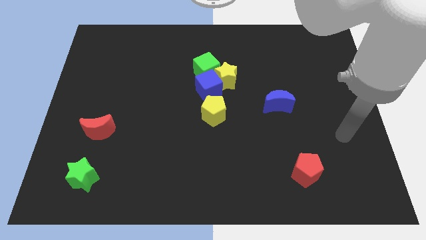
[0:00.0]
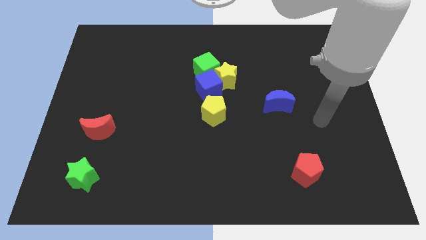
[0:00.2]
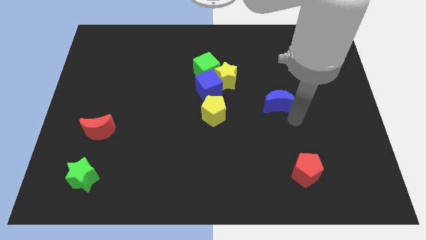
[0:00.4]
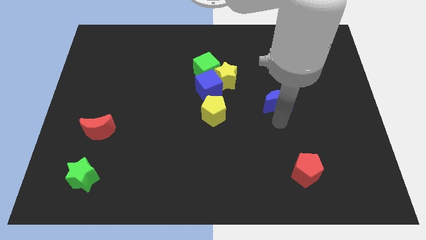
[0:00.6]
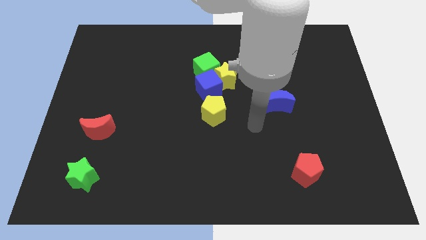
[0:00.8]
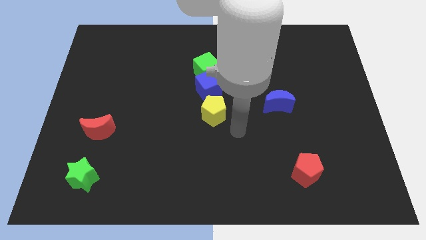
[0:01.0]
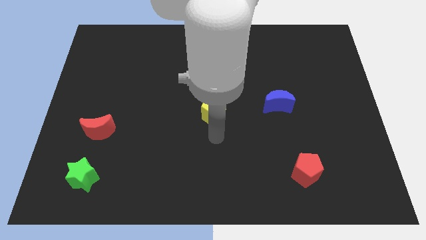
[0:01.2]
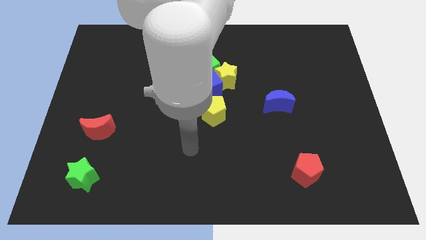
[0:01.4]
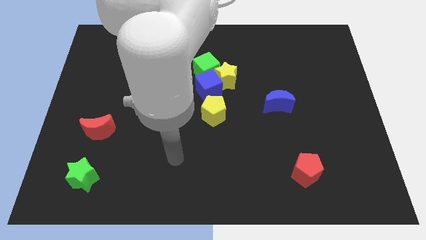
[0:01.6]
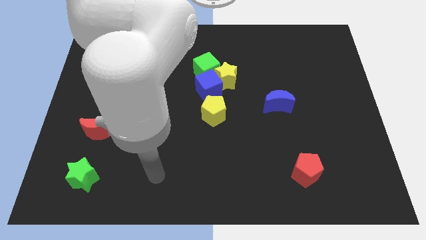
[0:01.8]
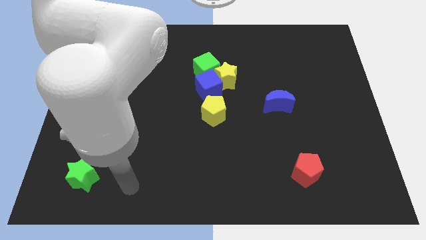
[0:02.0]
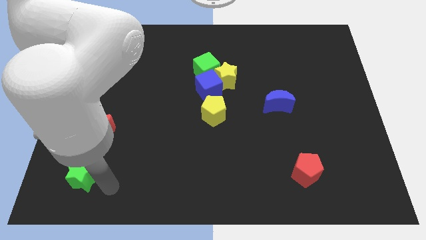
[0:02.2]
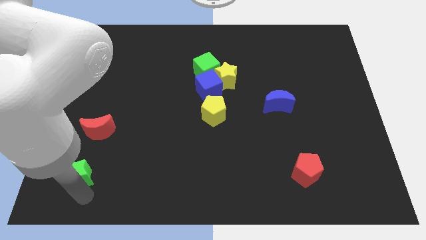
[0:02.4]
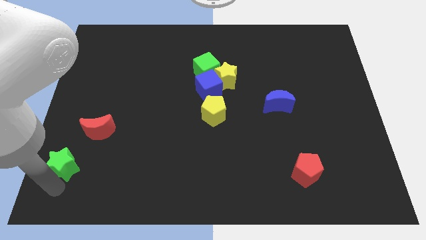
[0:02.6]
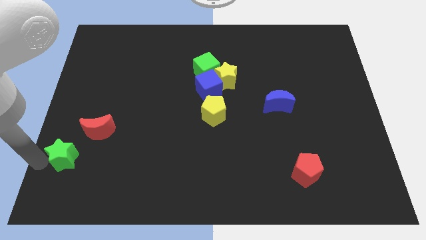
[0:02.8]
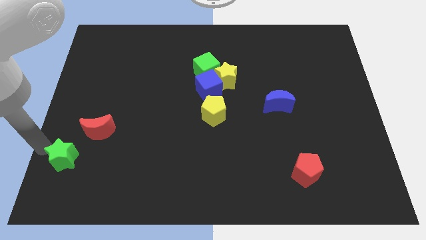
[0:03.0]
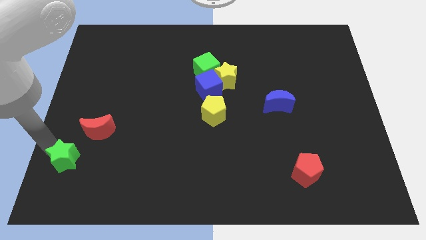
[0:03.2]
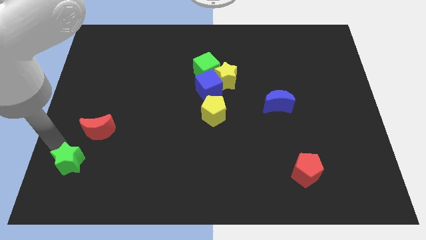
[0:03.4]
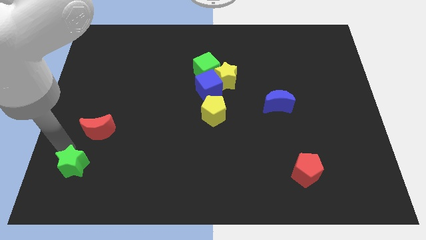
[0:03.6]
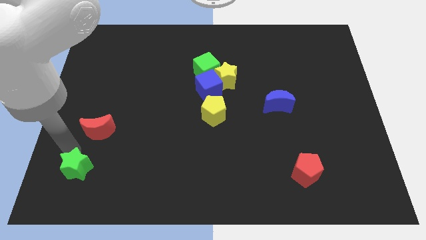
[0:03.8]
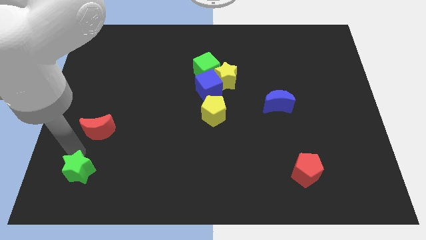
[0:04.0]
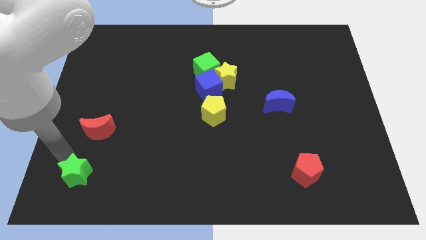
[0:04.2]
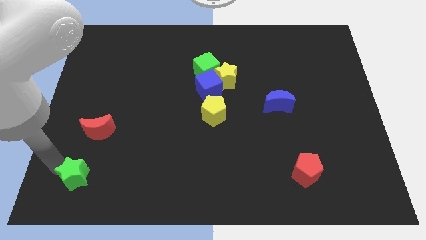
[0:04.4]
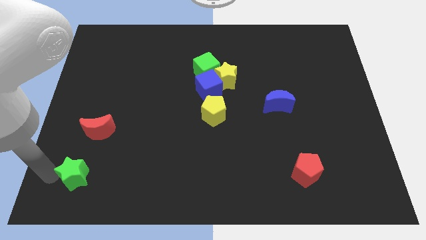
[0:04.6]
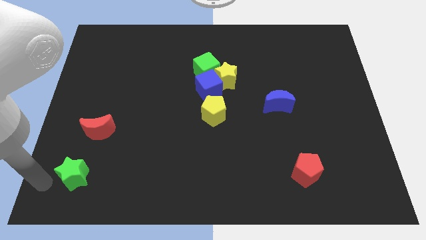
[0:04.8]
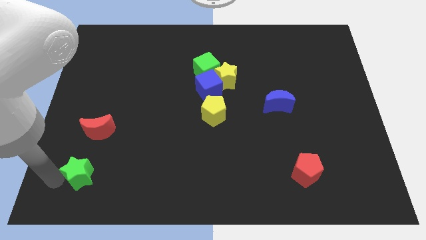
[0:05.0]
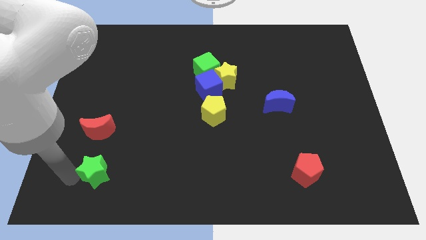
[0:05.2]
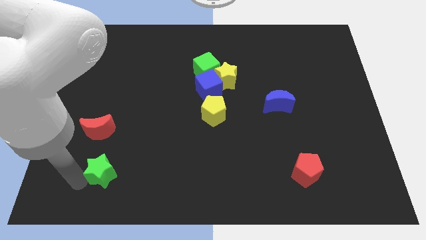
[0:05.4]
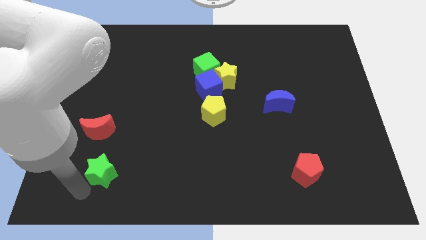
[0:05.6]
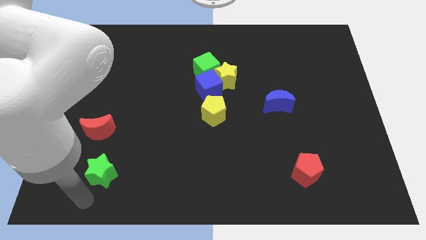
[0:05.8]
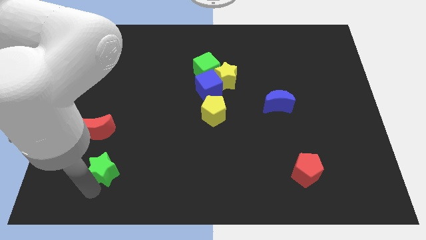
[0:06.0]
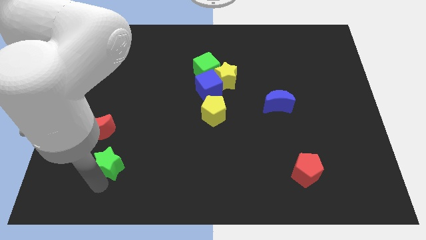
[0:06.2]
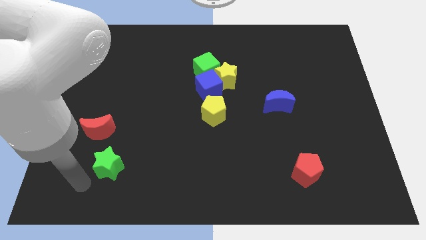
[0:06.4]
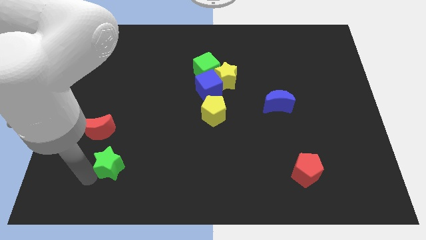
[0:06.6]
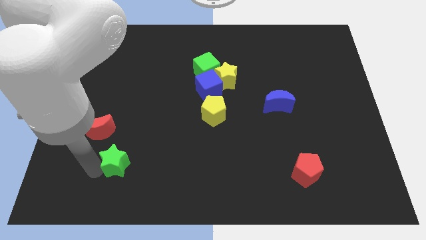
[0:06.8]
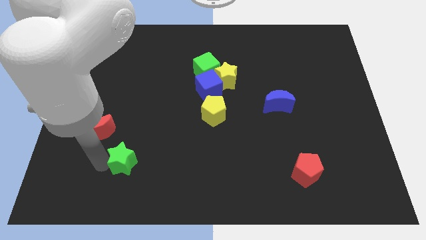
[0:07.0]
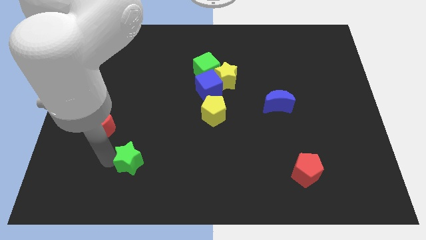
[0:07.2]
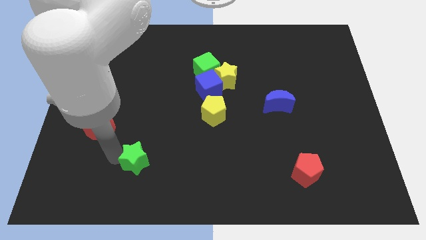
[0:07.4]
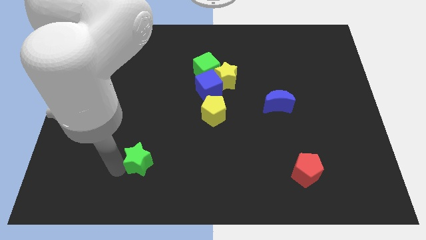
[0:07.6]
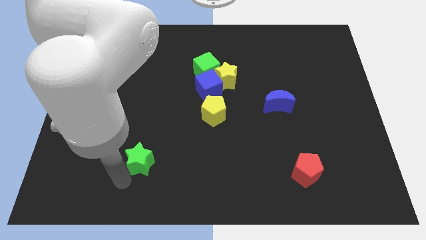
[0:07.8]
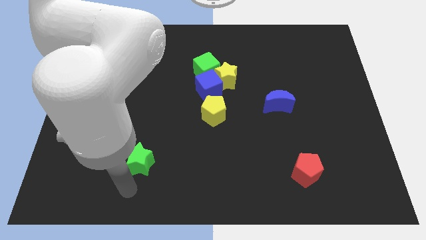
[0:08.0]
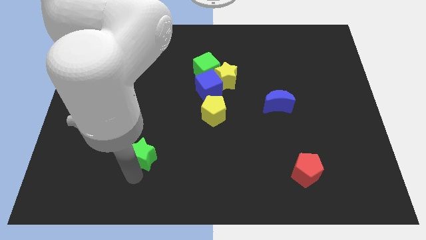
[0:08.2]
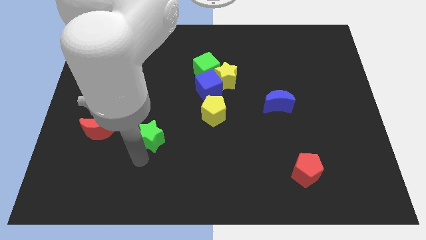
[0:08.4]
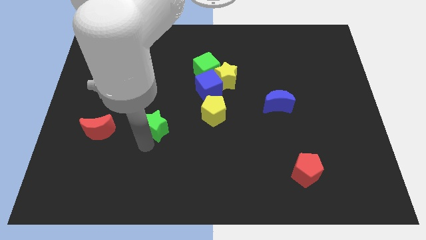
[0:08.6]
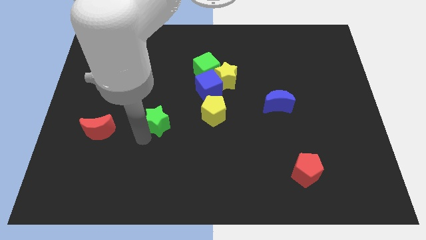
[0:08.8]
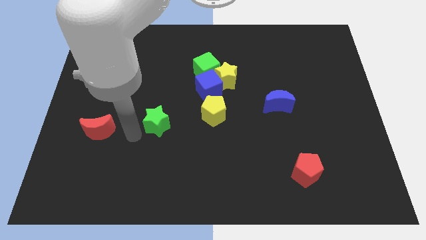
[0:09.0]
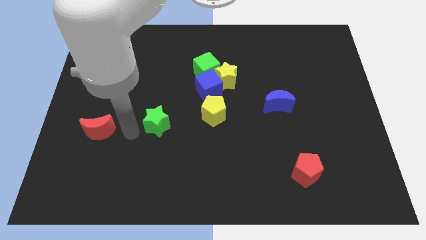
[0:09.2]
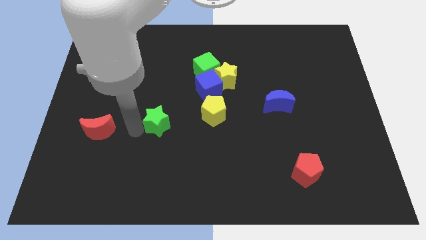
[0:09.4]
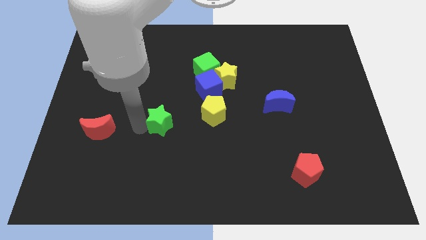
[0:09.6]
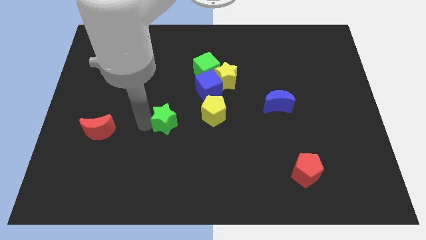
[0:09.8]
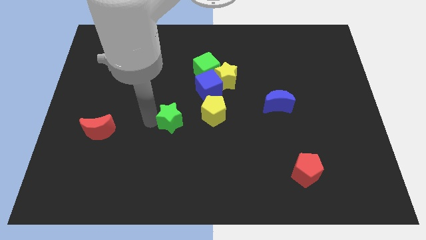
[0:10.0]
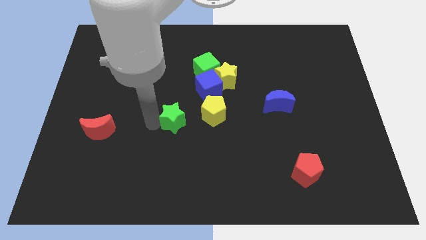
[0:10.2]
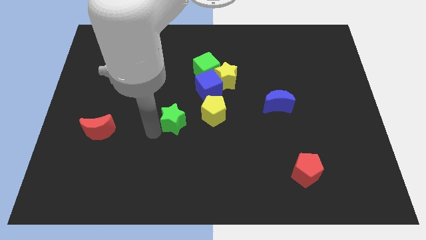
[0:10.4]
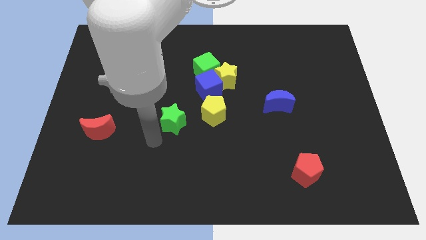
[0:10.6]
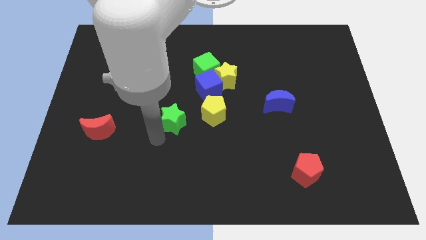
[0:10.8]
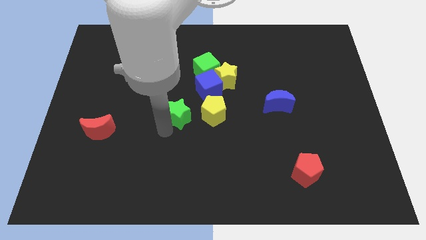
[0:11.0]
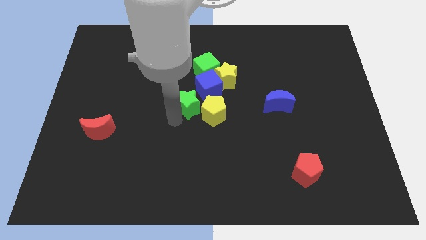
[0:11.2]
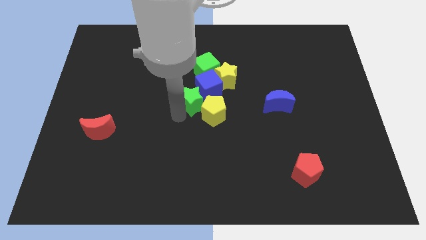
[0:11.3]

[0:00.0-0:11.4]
put the green star next to the blue cube

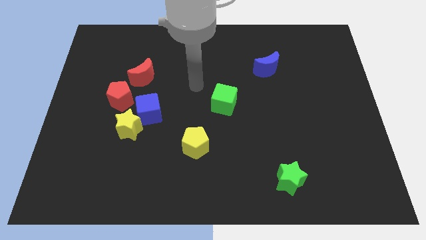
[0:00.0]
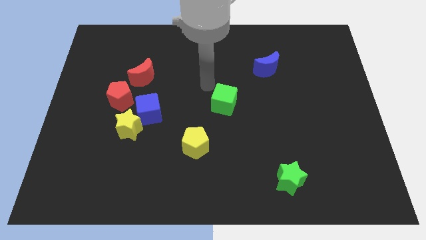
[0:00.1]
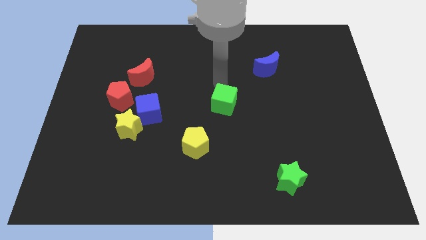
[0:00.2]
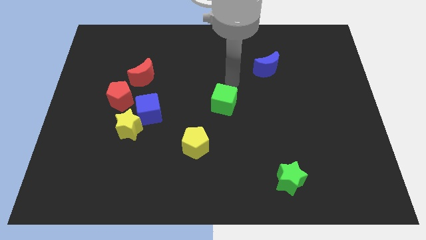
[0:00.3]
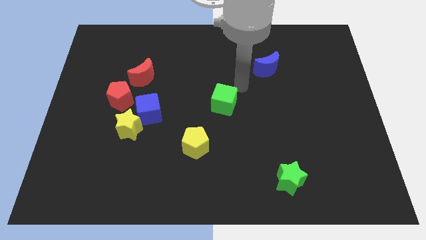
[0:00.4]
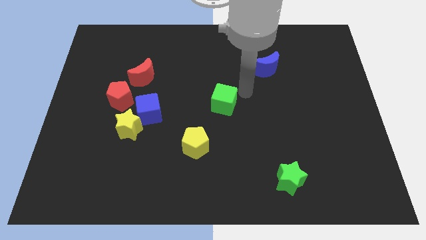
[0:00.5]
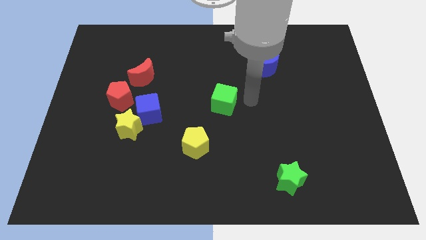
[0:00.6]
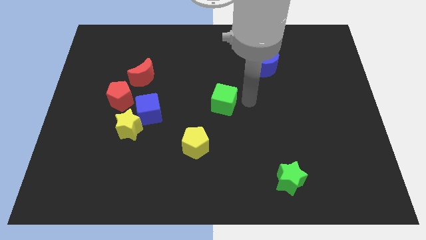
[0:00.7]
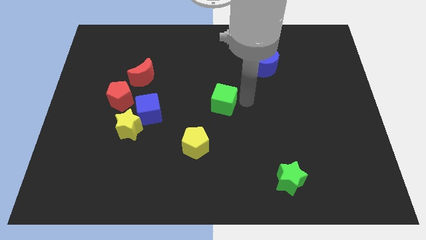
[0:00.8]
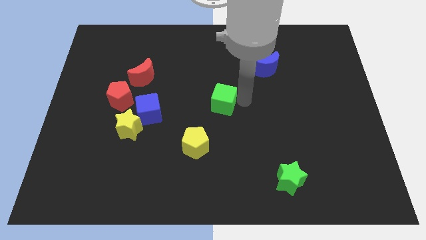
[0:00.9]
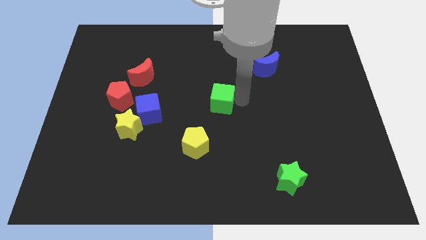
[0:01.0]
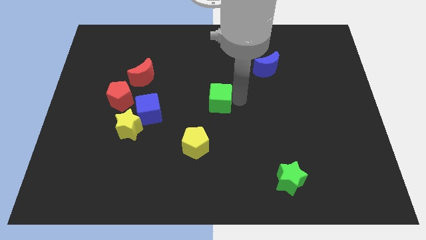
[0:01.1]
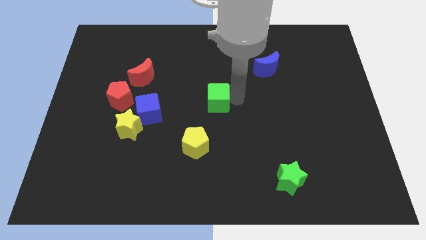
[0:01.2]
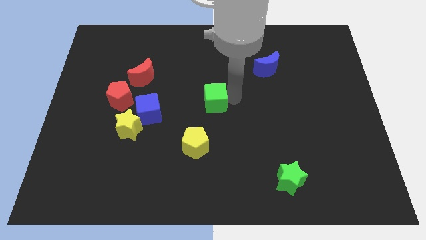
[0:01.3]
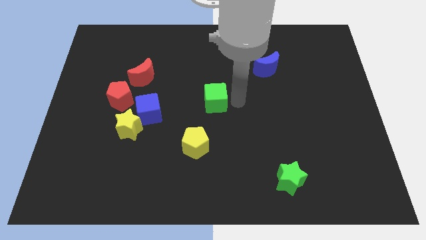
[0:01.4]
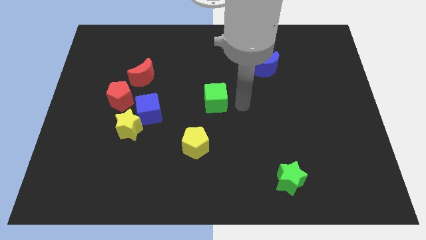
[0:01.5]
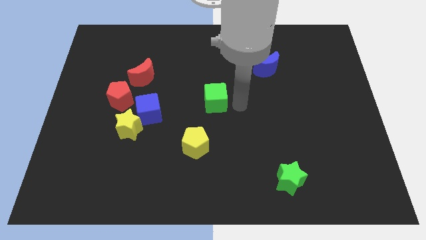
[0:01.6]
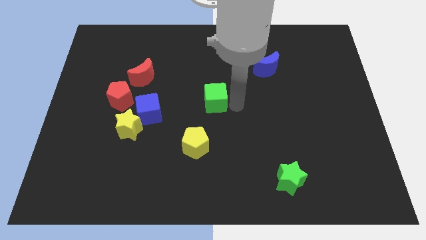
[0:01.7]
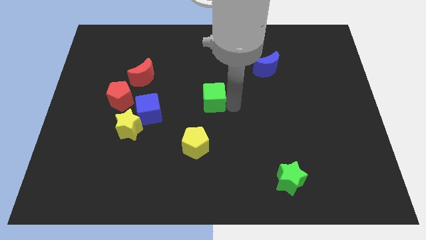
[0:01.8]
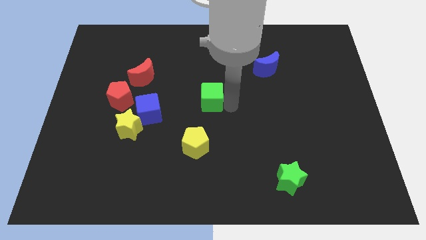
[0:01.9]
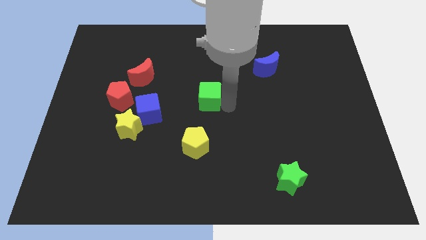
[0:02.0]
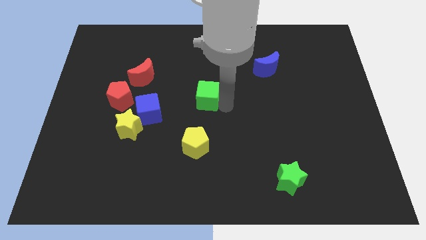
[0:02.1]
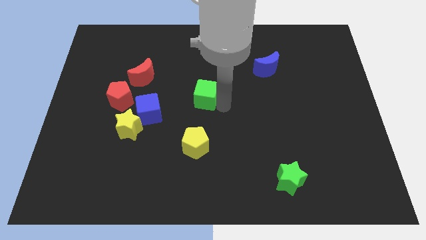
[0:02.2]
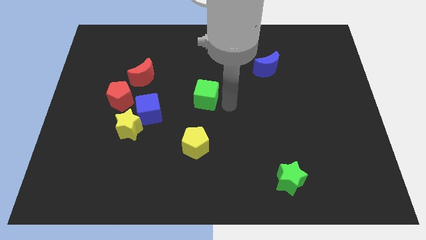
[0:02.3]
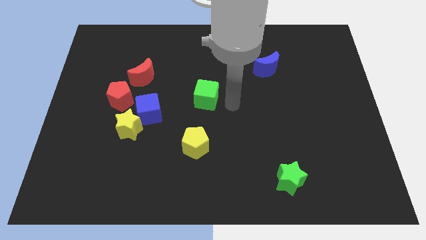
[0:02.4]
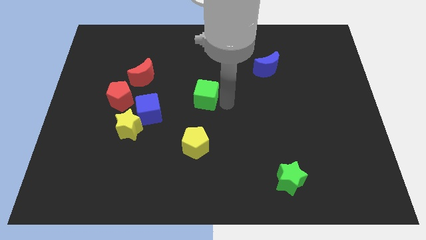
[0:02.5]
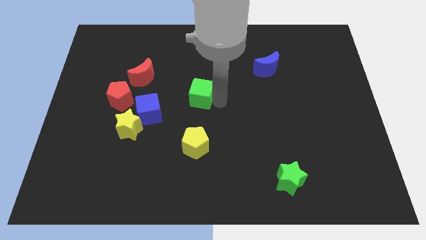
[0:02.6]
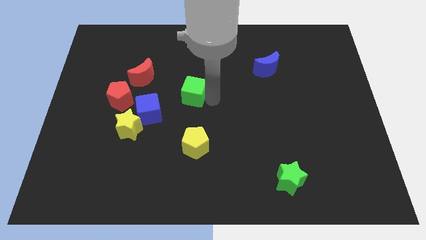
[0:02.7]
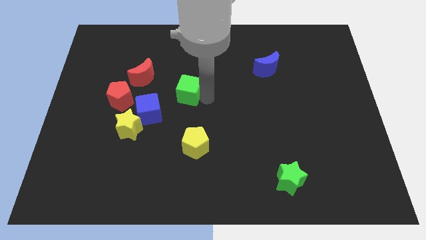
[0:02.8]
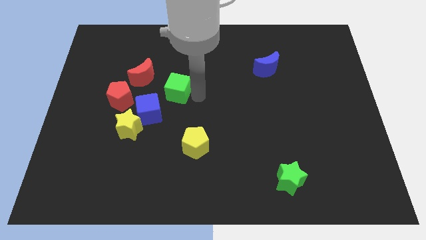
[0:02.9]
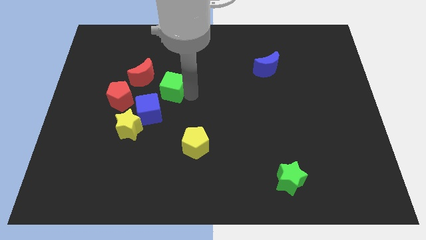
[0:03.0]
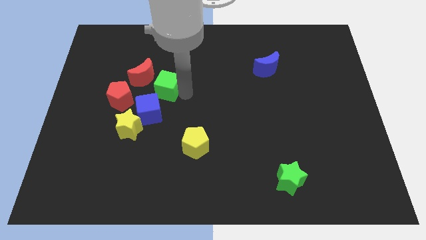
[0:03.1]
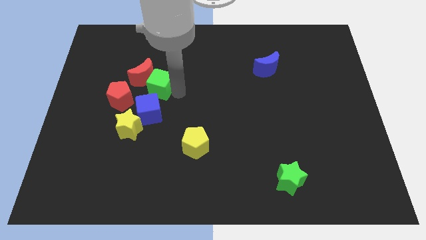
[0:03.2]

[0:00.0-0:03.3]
put the green cube next to the red moon
